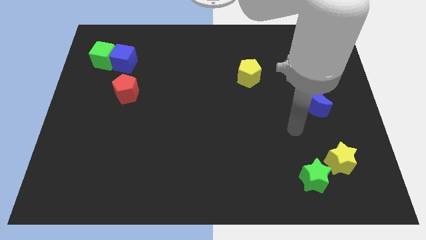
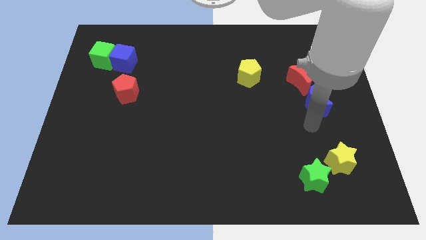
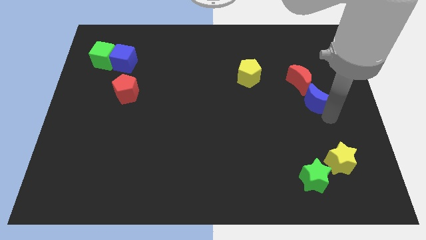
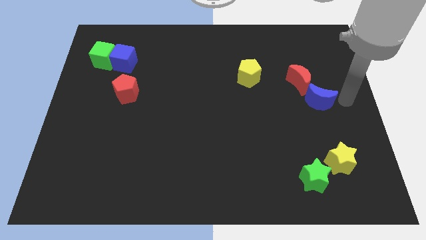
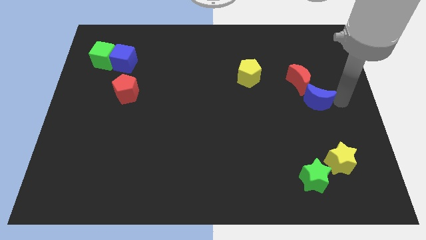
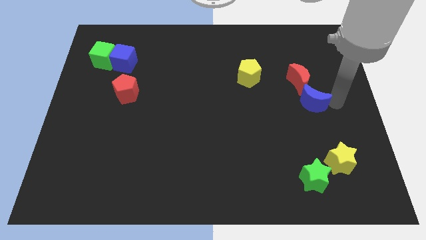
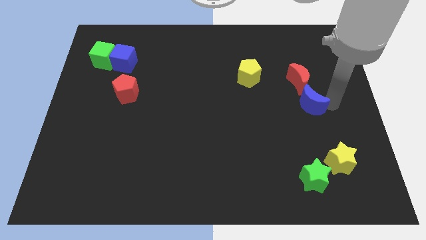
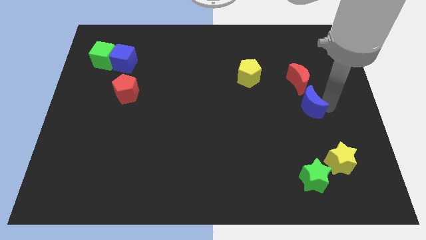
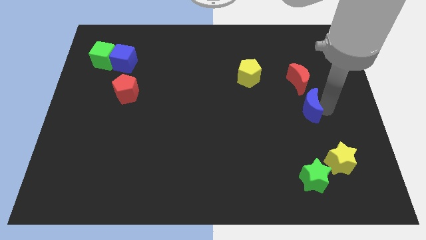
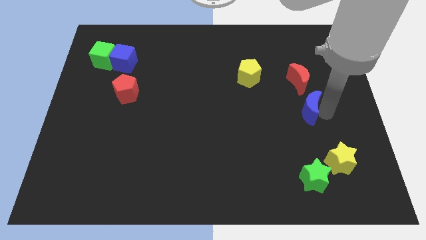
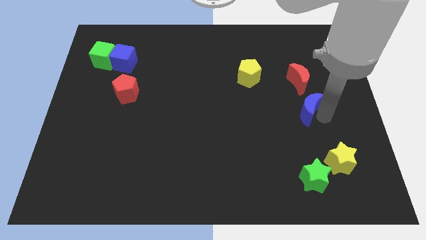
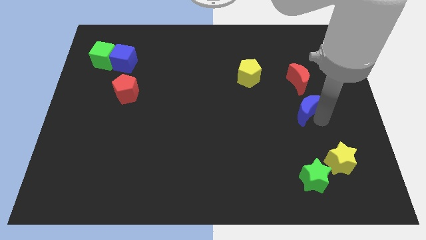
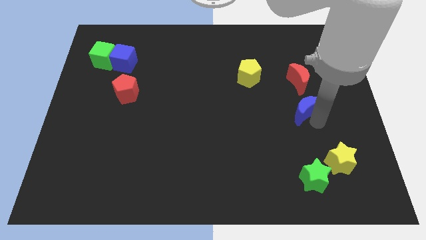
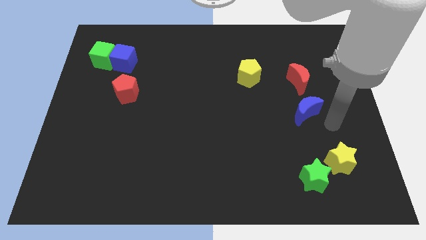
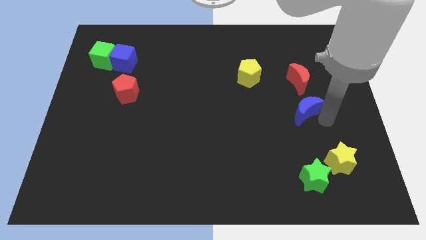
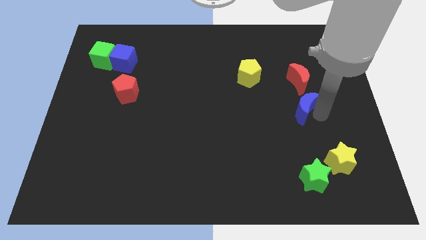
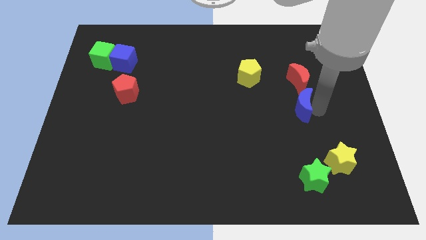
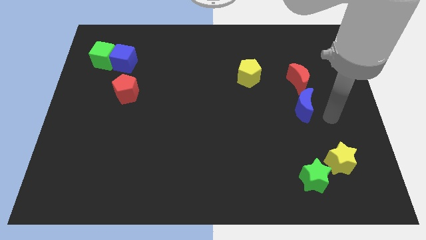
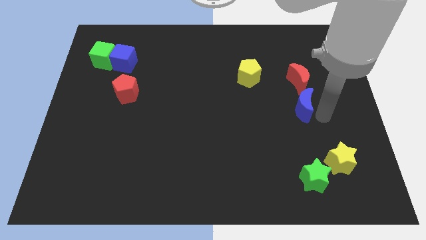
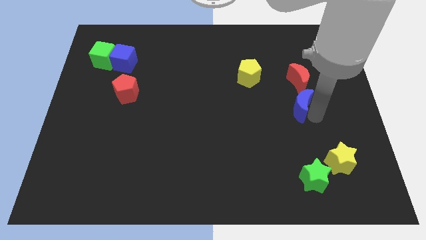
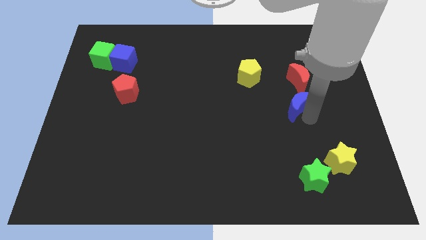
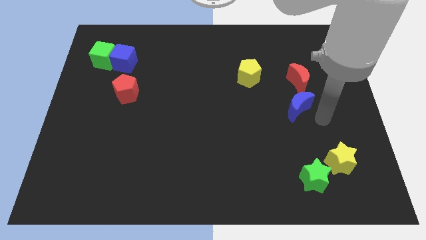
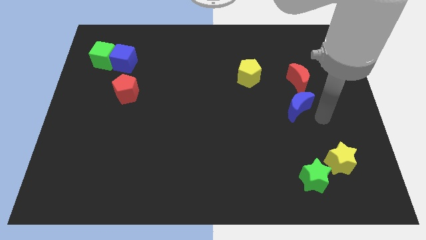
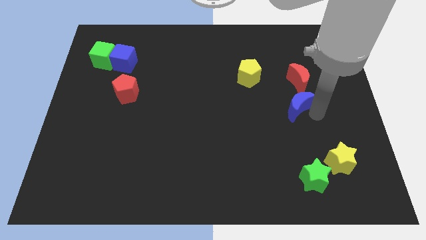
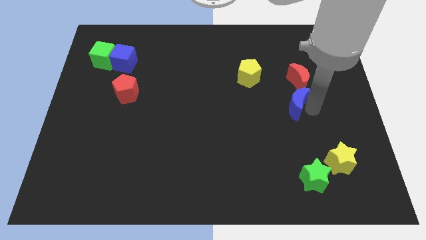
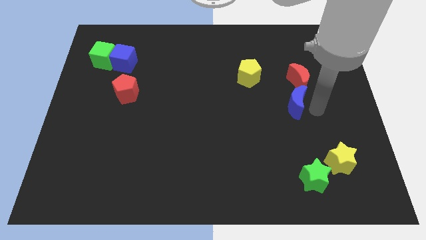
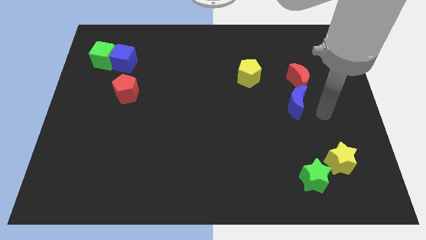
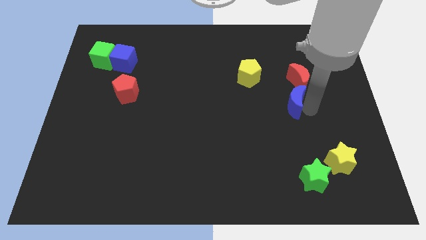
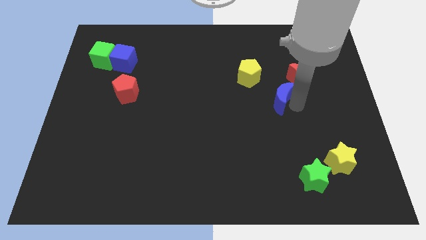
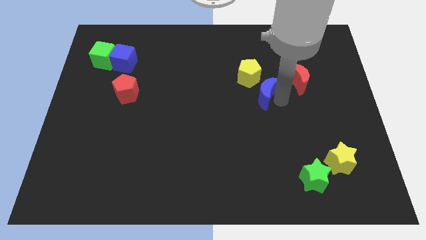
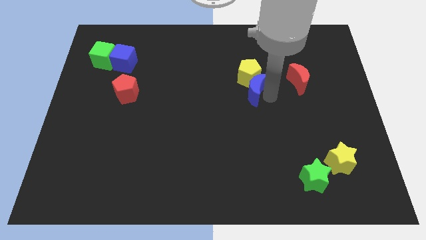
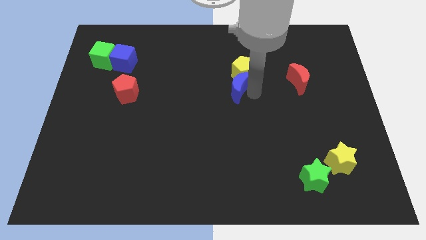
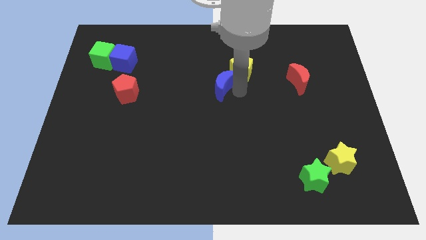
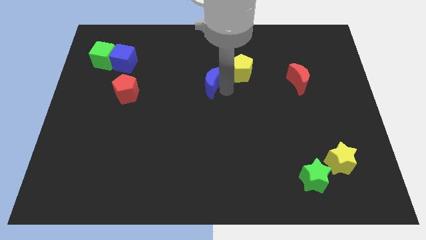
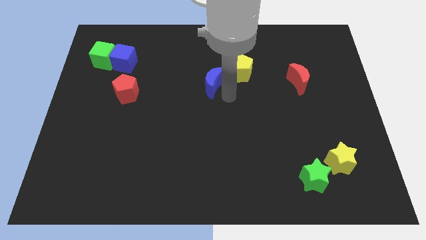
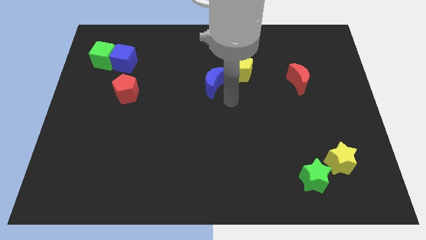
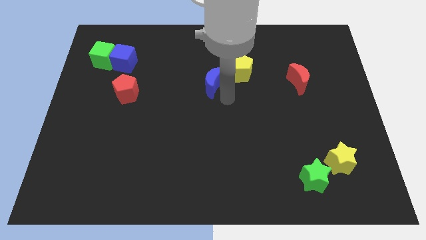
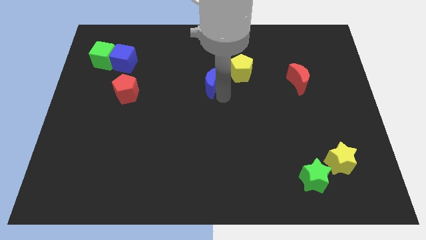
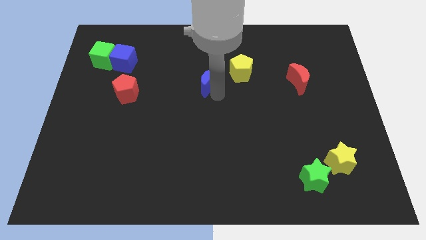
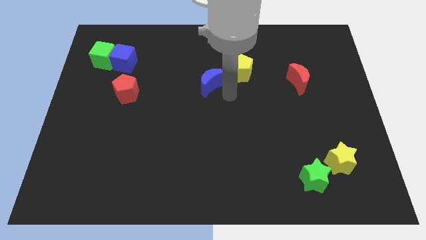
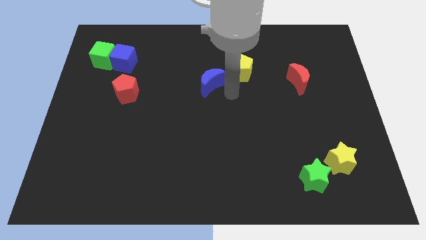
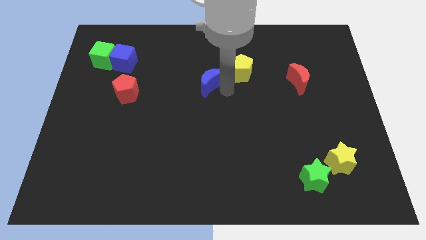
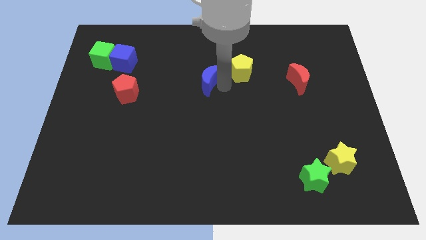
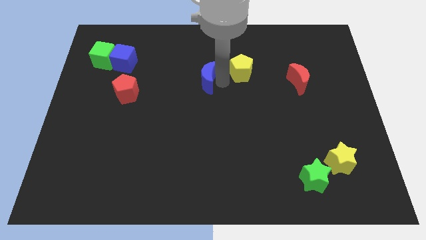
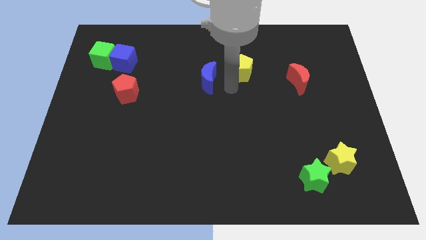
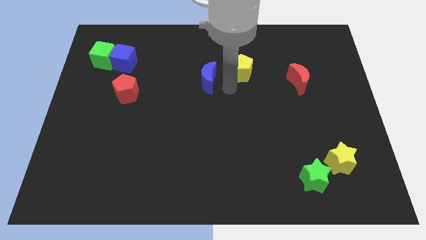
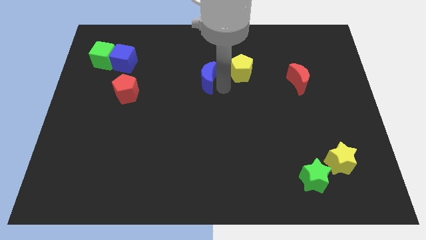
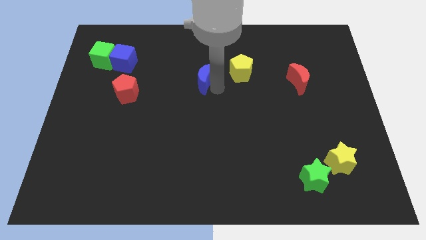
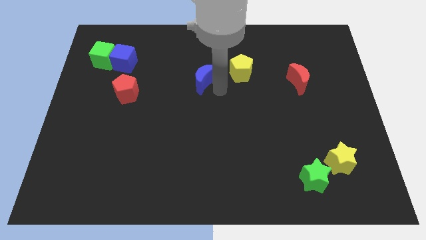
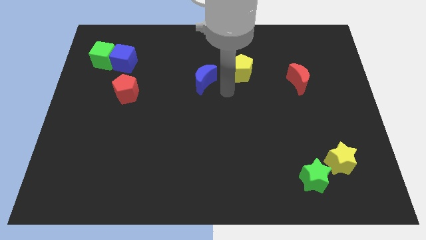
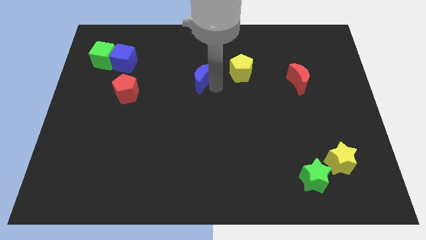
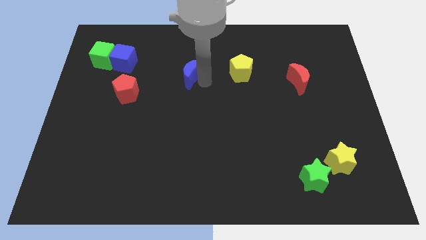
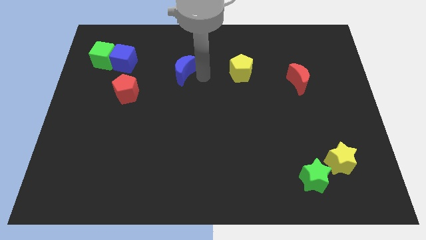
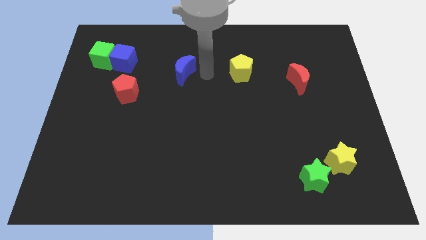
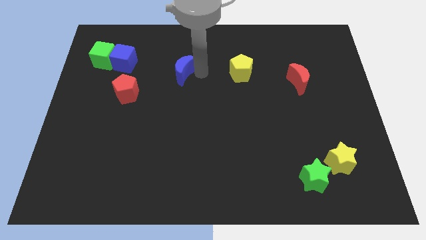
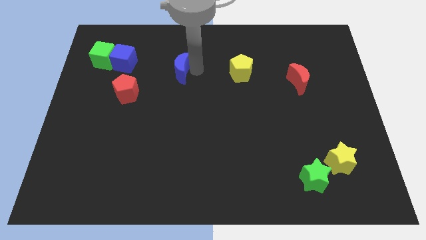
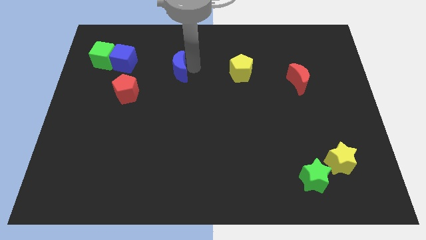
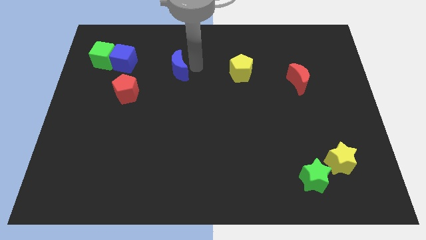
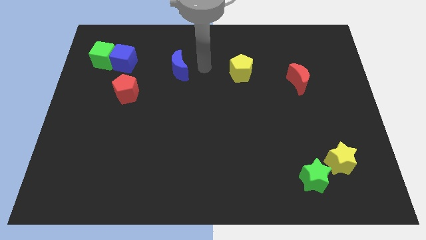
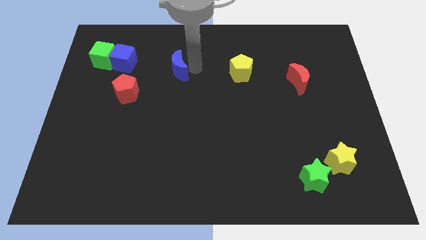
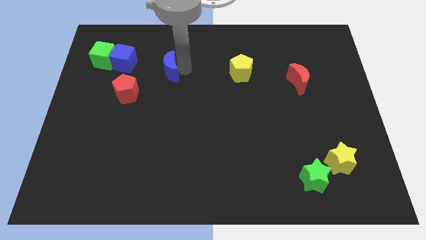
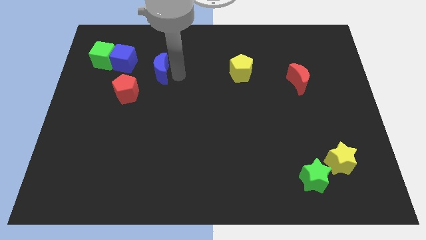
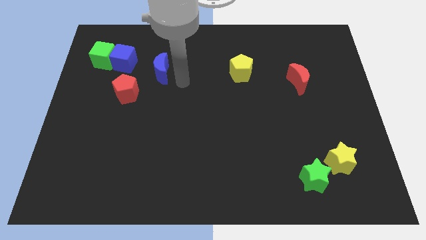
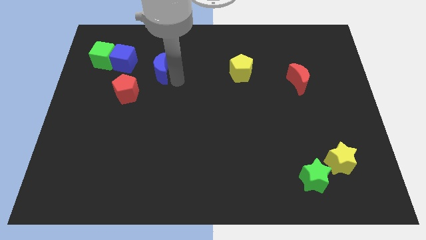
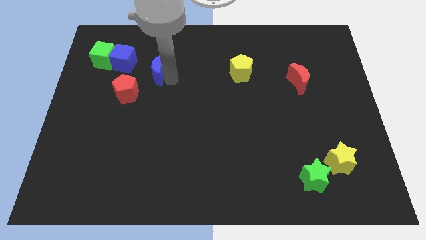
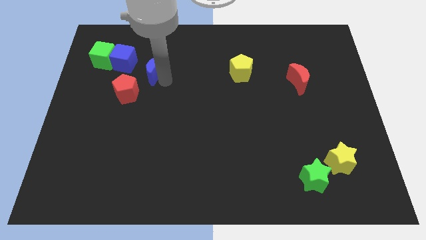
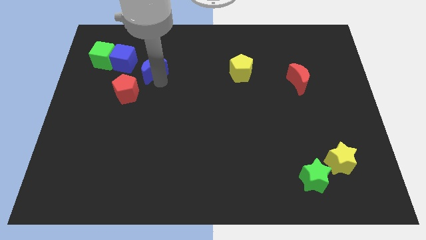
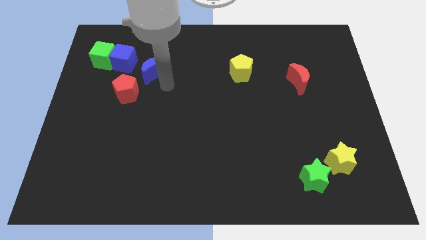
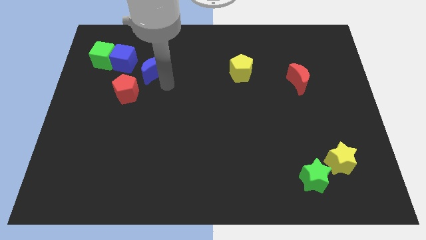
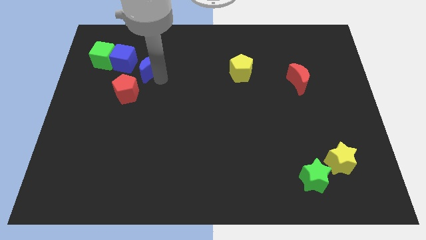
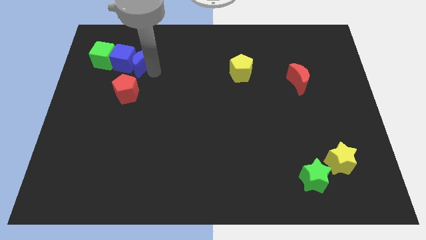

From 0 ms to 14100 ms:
move the blue moon next to the blue cube

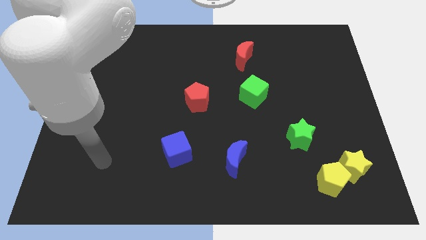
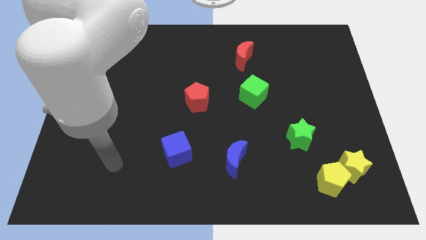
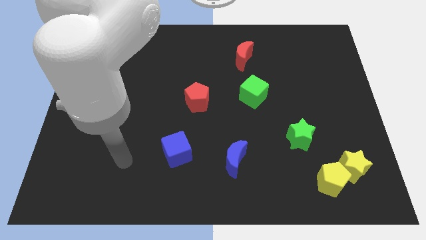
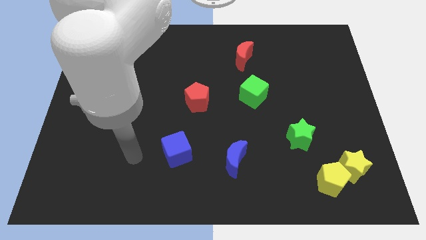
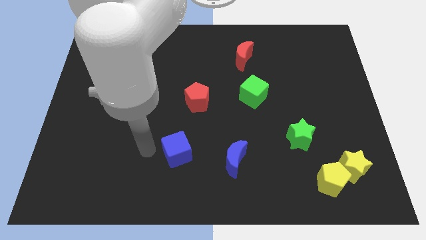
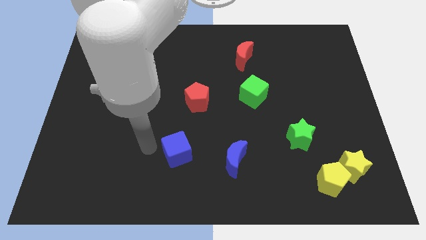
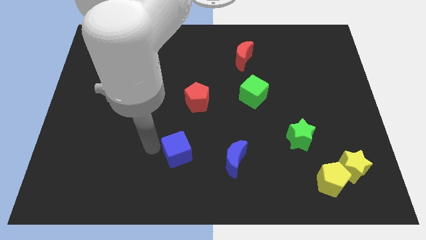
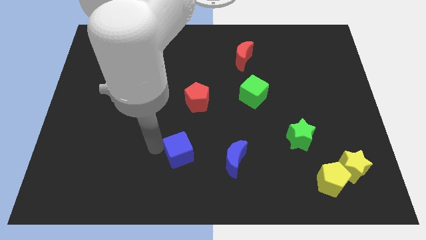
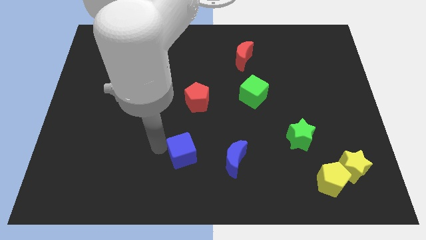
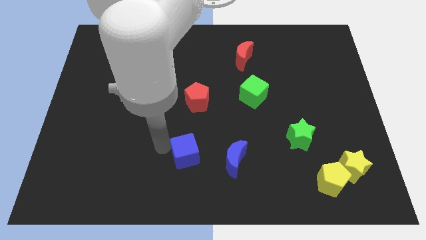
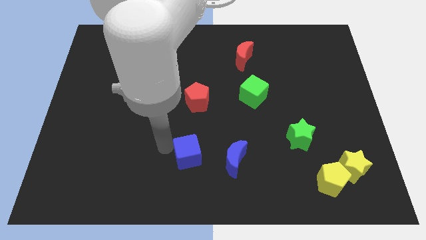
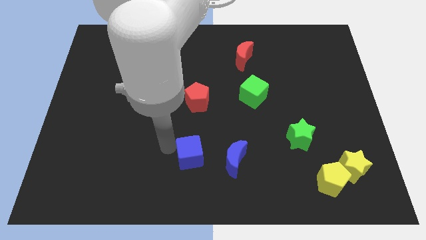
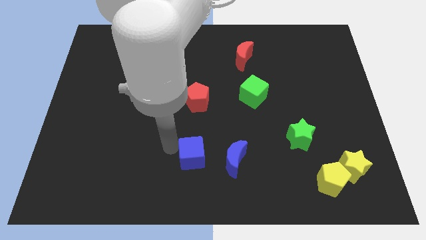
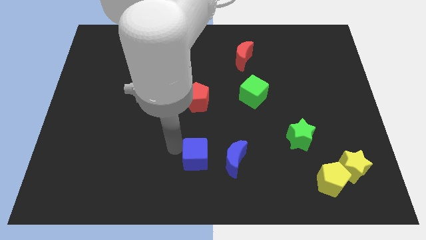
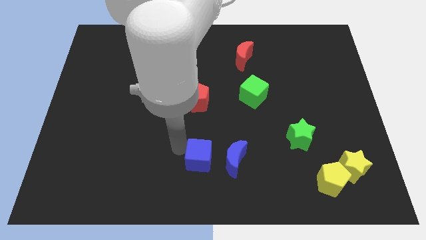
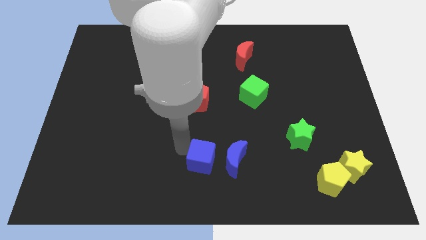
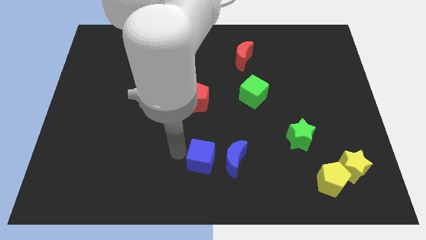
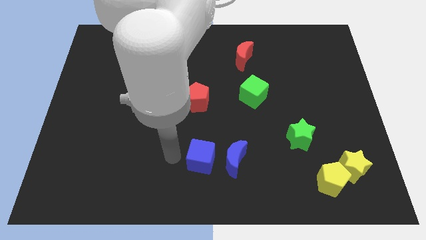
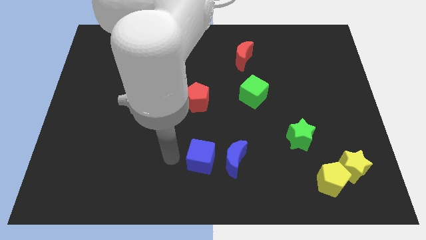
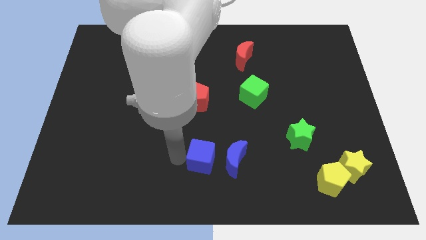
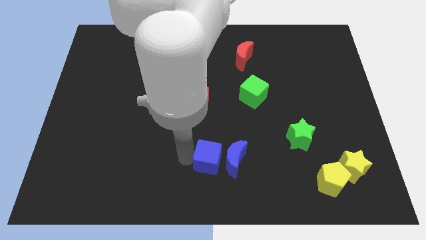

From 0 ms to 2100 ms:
put the blue cube next to the blue moon
